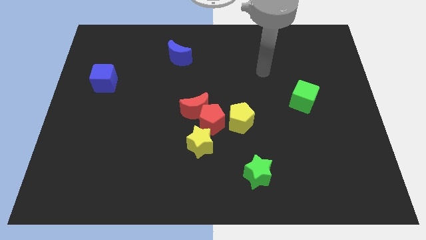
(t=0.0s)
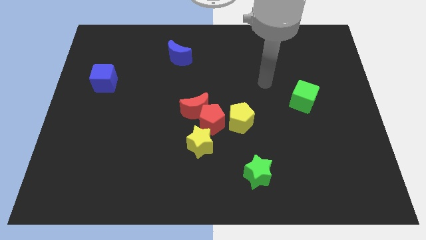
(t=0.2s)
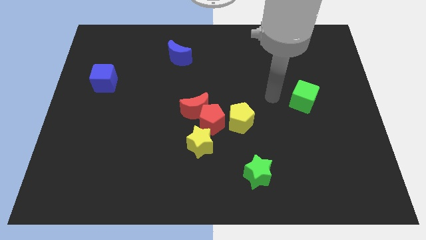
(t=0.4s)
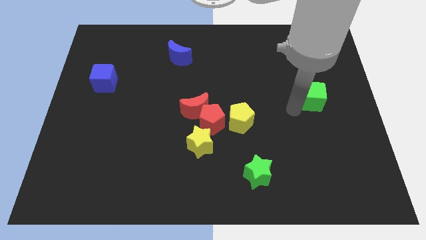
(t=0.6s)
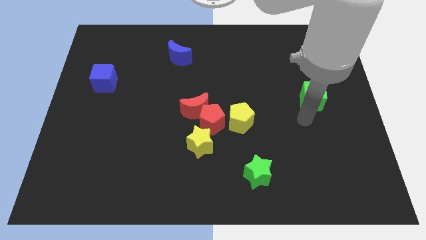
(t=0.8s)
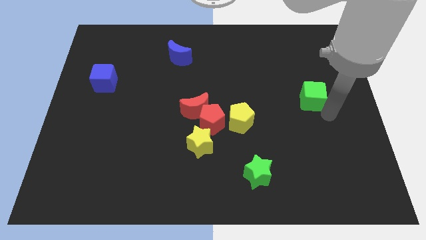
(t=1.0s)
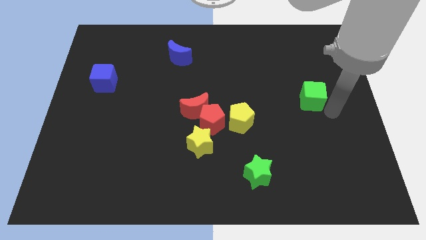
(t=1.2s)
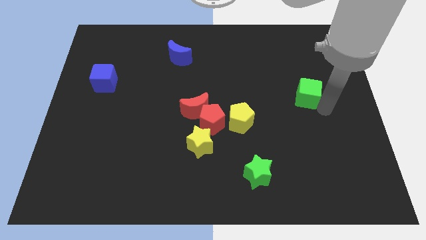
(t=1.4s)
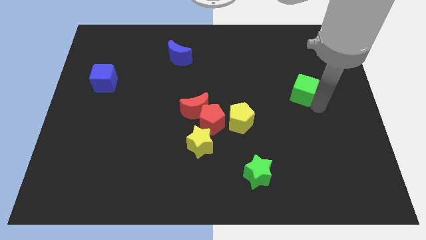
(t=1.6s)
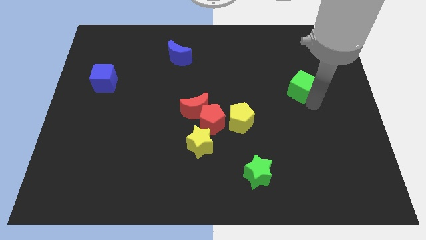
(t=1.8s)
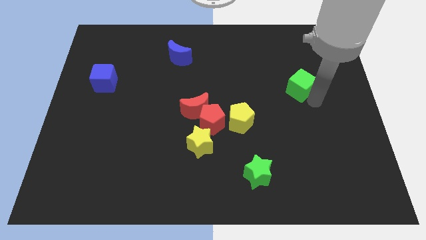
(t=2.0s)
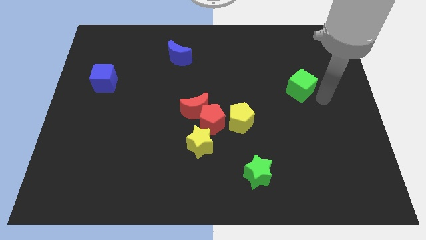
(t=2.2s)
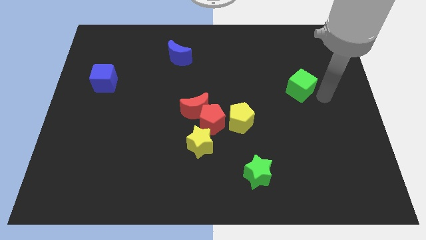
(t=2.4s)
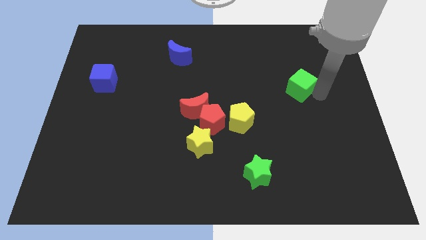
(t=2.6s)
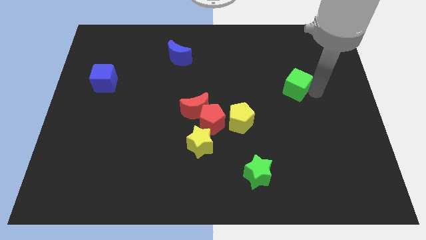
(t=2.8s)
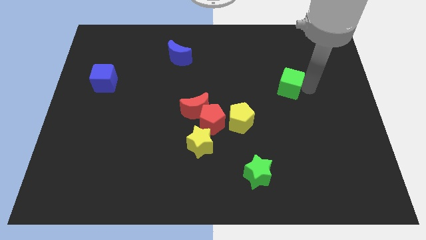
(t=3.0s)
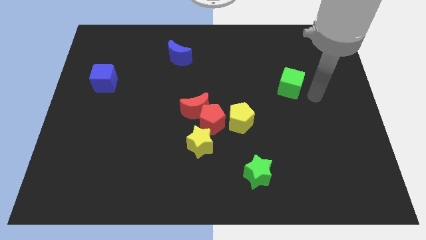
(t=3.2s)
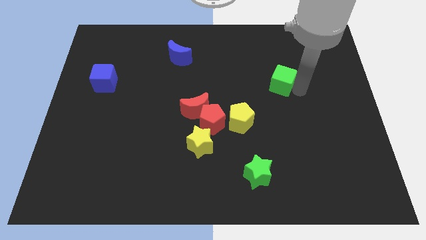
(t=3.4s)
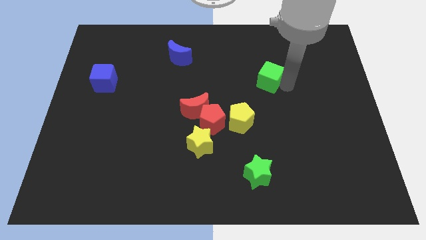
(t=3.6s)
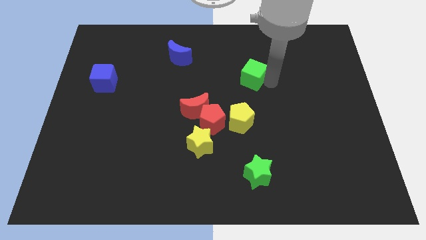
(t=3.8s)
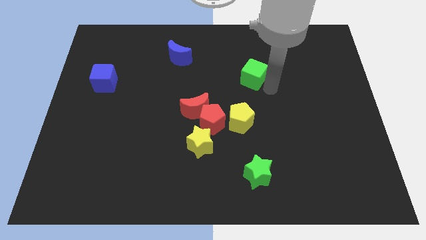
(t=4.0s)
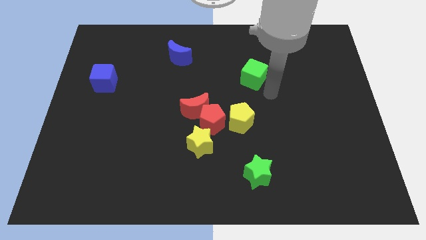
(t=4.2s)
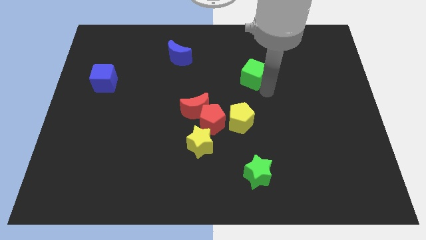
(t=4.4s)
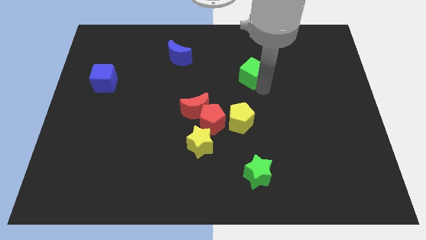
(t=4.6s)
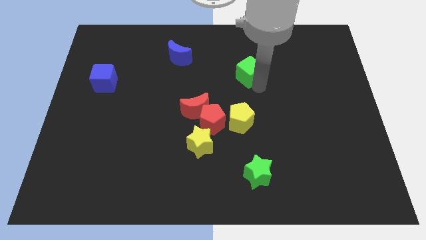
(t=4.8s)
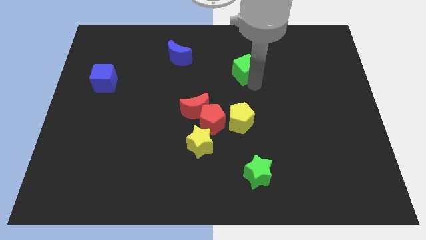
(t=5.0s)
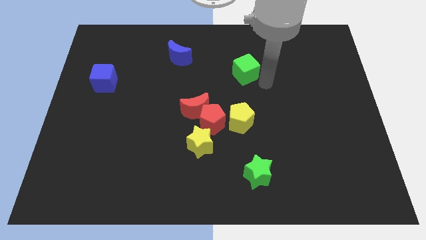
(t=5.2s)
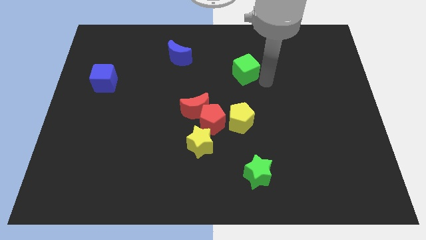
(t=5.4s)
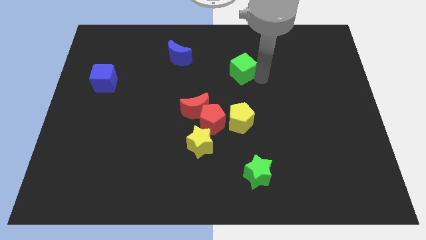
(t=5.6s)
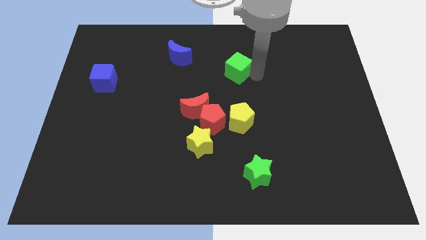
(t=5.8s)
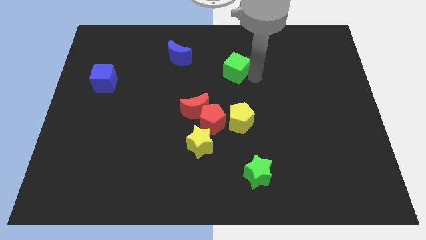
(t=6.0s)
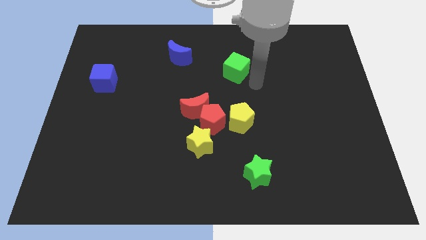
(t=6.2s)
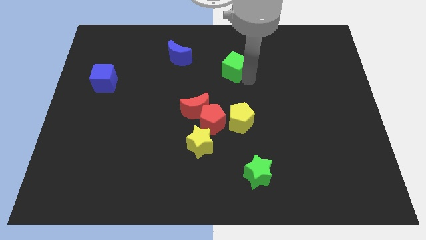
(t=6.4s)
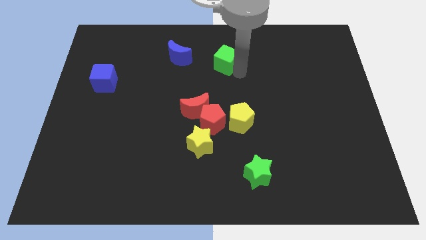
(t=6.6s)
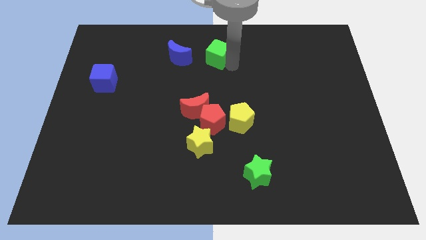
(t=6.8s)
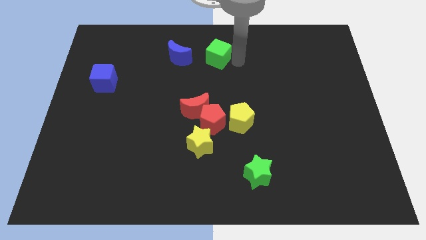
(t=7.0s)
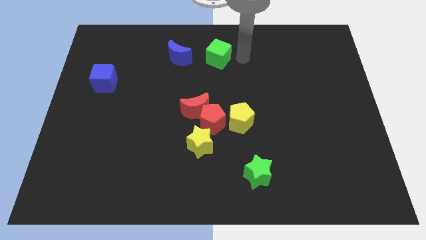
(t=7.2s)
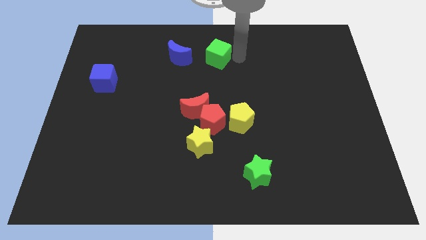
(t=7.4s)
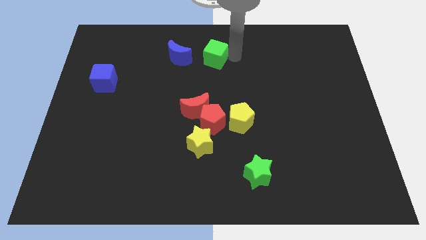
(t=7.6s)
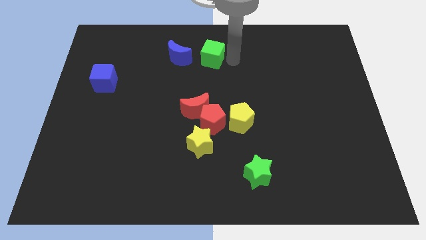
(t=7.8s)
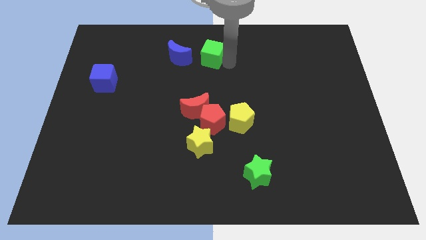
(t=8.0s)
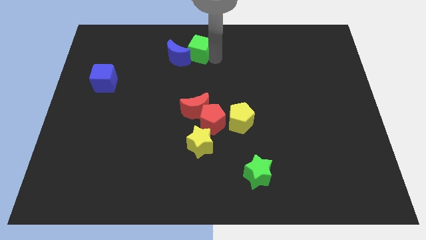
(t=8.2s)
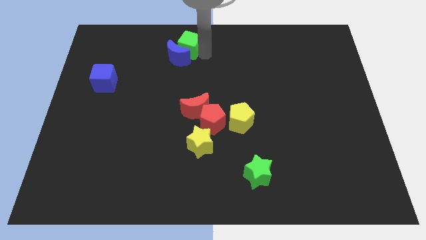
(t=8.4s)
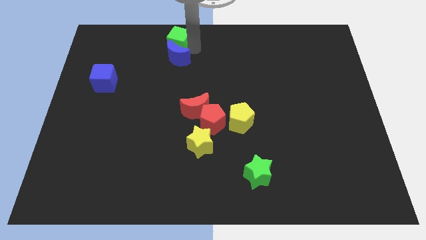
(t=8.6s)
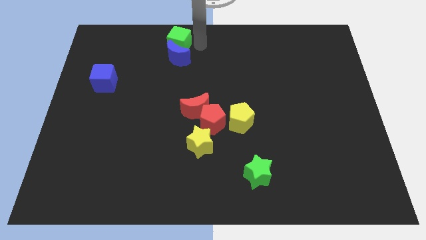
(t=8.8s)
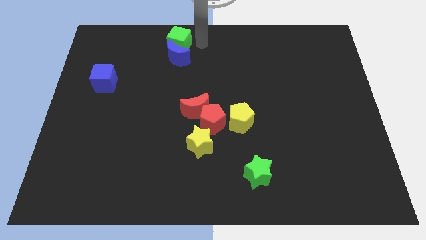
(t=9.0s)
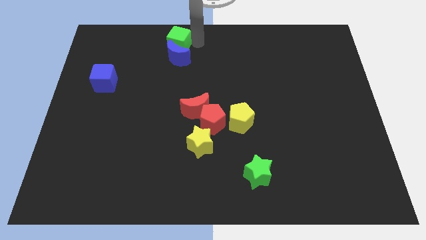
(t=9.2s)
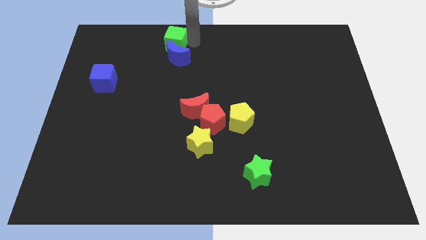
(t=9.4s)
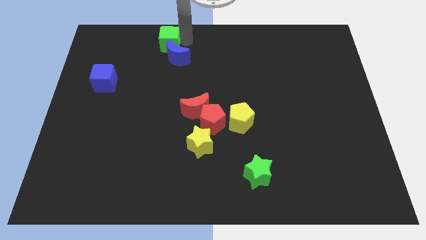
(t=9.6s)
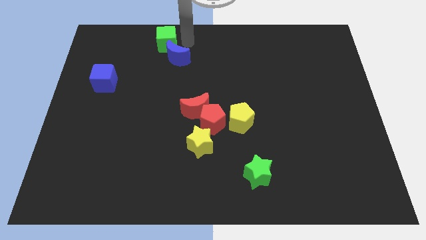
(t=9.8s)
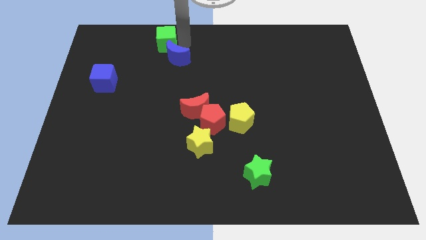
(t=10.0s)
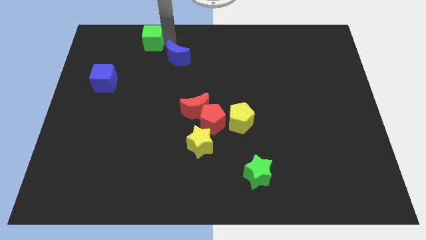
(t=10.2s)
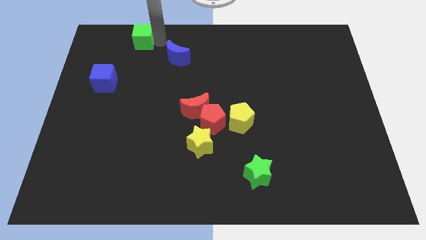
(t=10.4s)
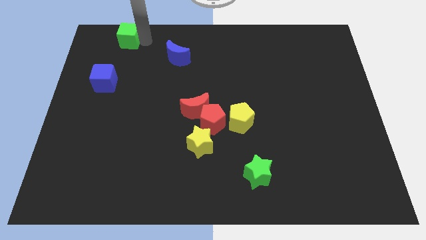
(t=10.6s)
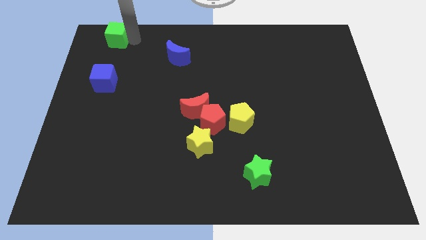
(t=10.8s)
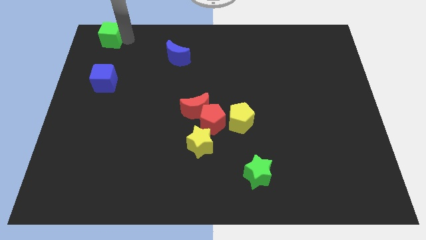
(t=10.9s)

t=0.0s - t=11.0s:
put the green cube to the top left of the board
